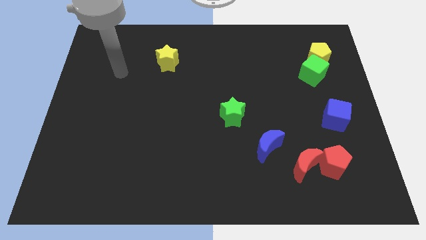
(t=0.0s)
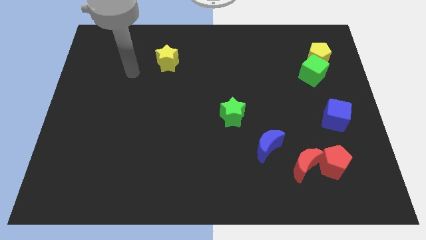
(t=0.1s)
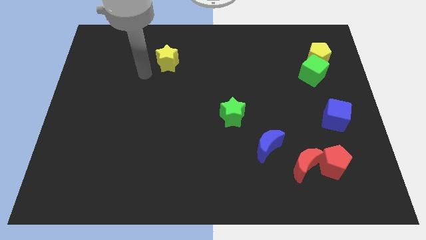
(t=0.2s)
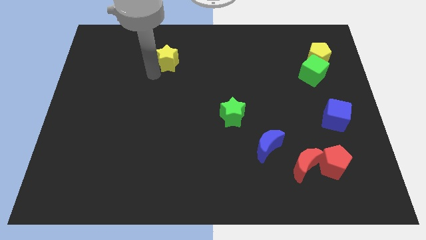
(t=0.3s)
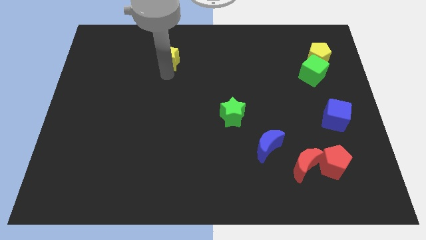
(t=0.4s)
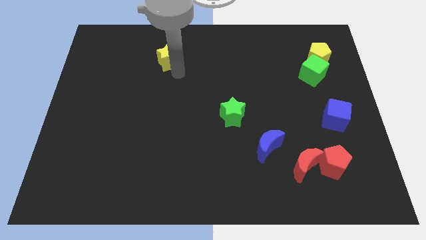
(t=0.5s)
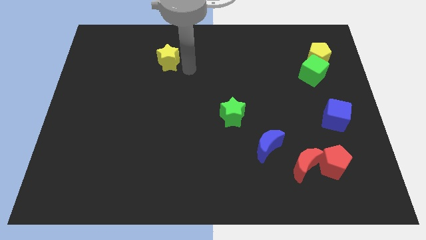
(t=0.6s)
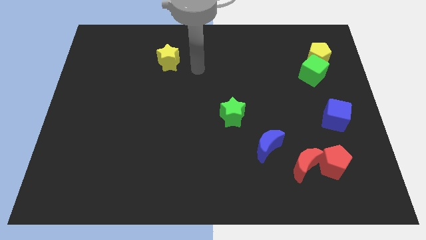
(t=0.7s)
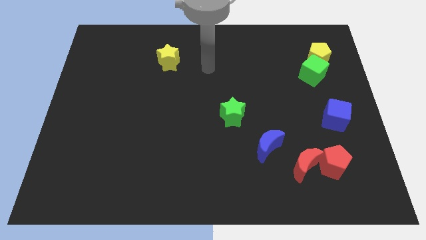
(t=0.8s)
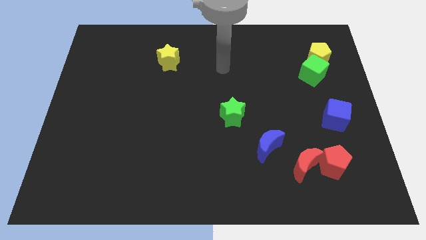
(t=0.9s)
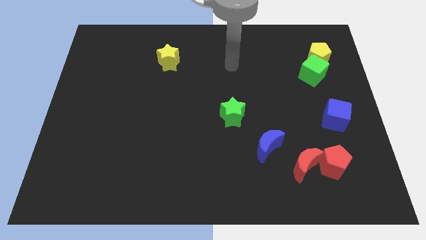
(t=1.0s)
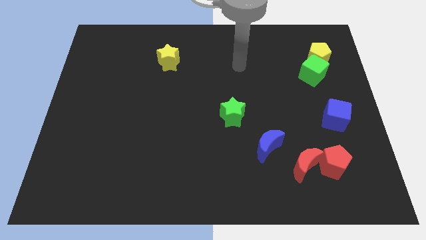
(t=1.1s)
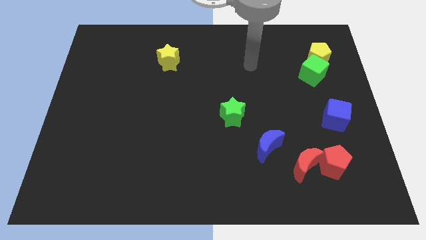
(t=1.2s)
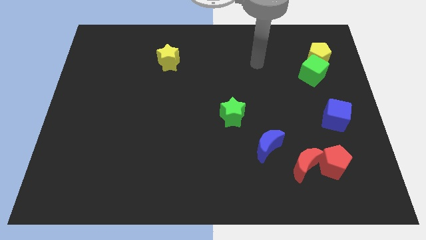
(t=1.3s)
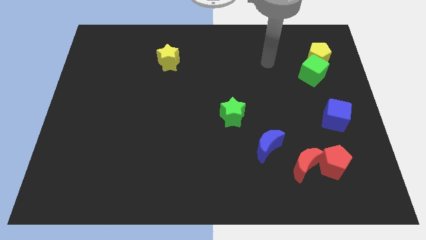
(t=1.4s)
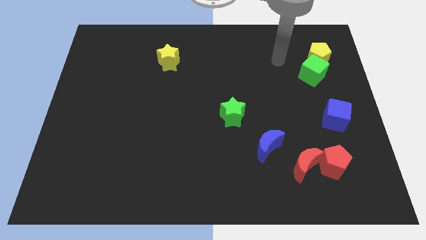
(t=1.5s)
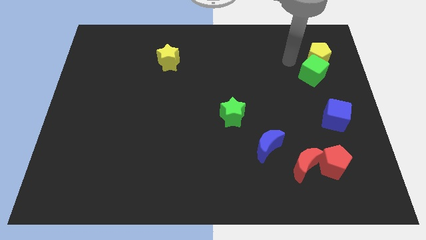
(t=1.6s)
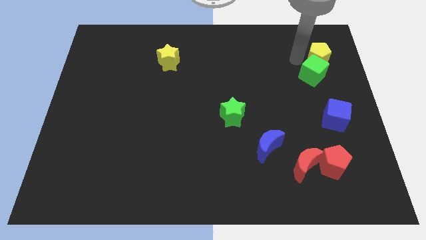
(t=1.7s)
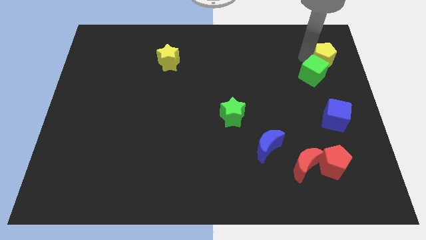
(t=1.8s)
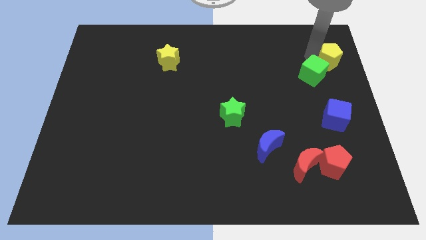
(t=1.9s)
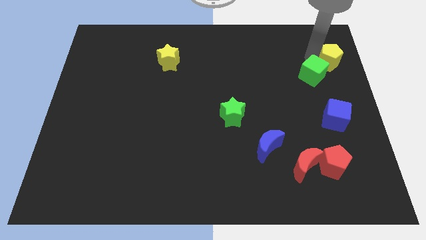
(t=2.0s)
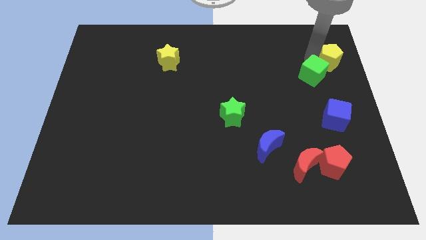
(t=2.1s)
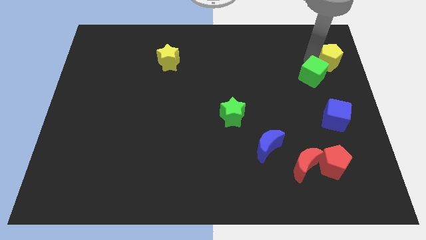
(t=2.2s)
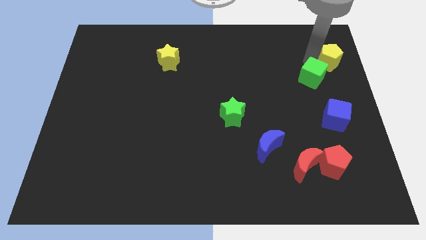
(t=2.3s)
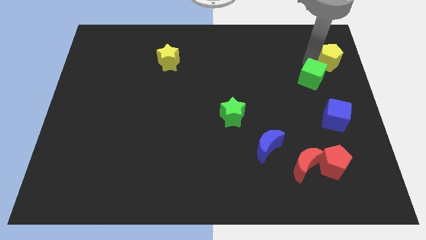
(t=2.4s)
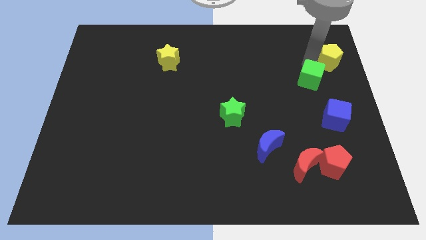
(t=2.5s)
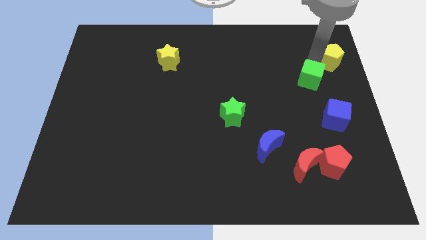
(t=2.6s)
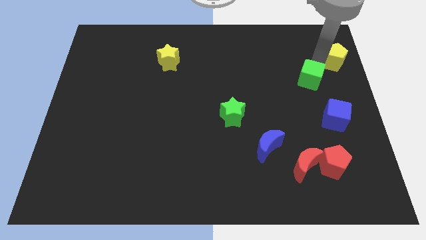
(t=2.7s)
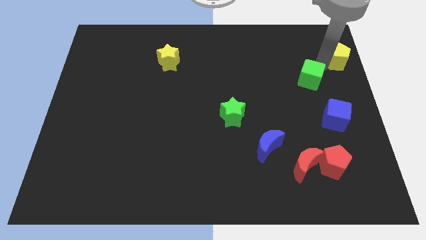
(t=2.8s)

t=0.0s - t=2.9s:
pull the green cube apart from the yellow pentagon

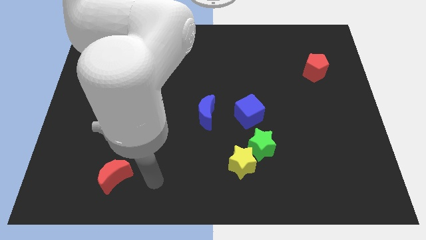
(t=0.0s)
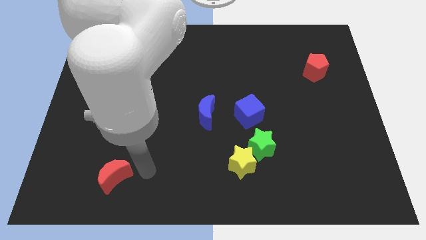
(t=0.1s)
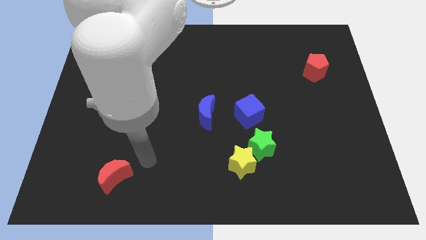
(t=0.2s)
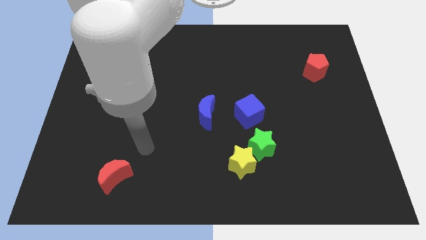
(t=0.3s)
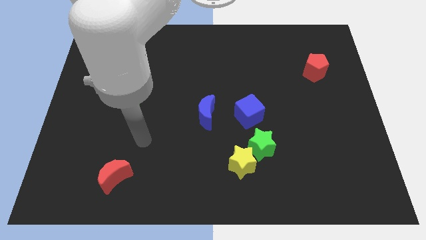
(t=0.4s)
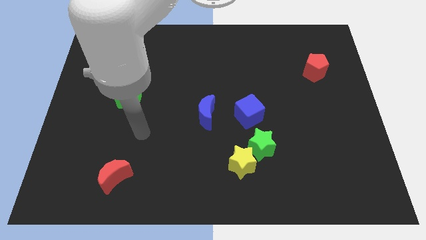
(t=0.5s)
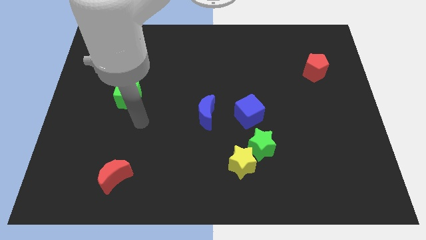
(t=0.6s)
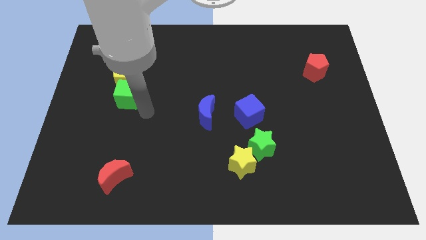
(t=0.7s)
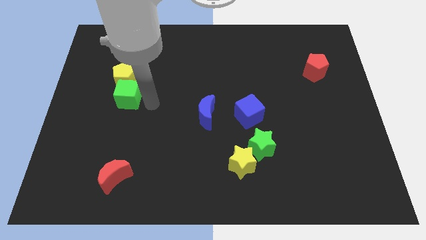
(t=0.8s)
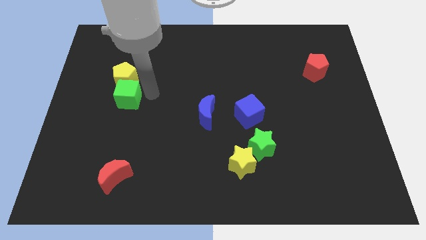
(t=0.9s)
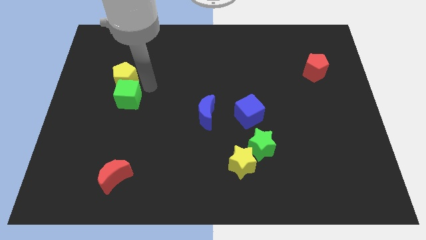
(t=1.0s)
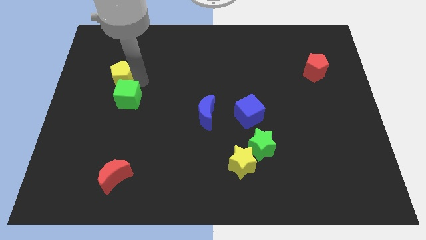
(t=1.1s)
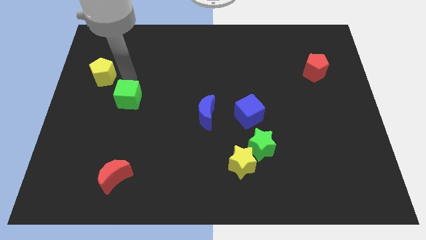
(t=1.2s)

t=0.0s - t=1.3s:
separate the green cube from the yellow pentagon

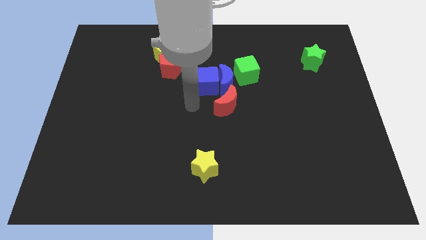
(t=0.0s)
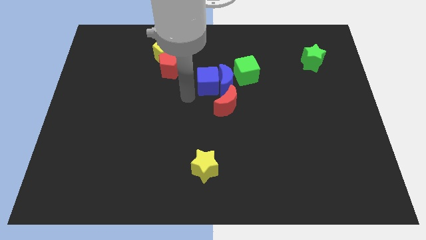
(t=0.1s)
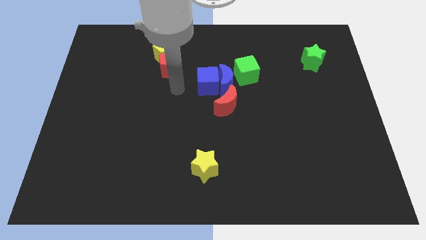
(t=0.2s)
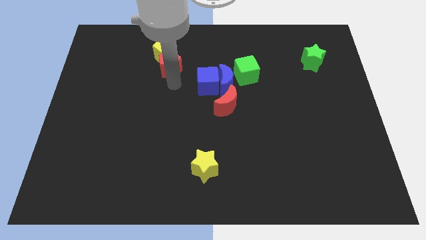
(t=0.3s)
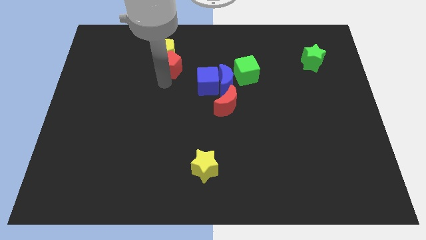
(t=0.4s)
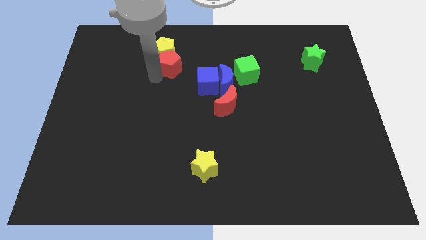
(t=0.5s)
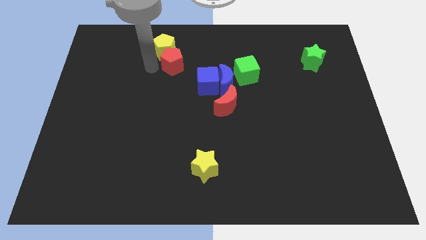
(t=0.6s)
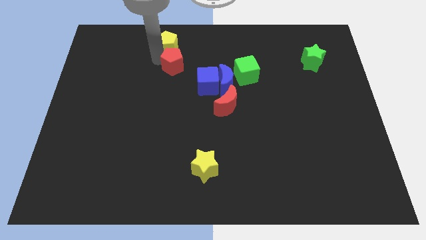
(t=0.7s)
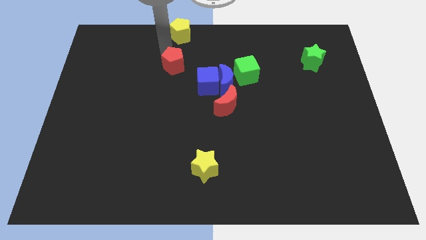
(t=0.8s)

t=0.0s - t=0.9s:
pull the red pentagon apart from the yellow pentagon

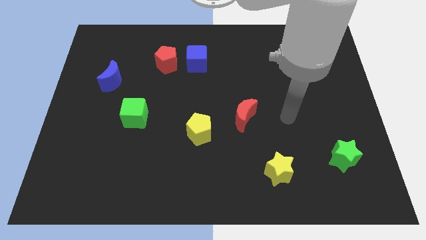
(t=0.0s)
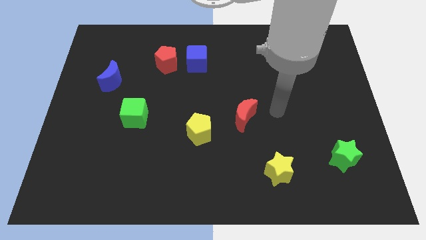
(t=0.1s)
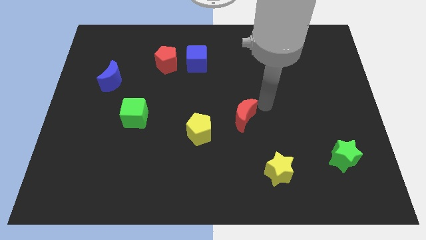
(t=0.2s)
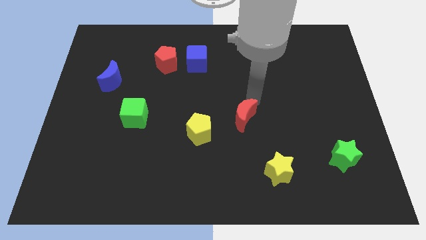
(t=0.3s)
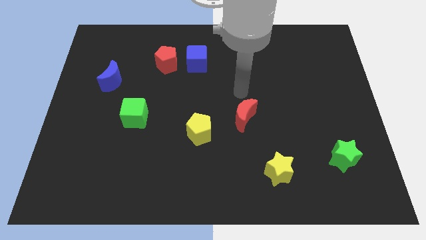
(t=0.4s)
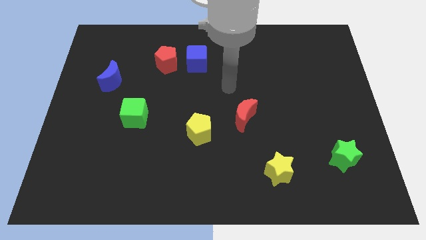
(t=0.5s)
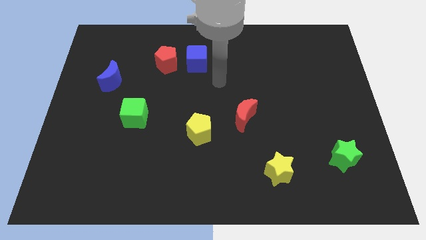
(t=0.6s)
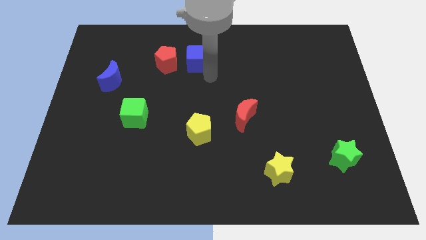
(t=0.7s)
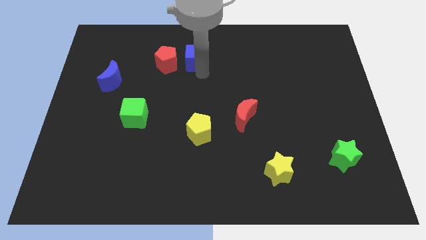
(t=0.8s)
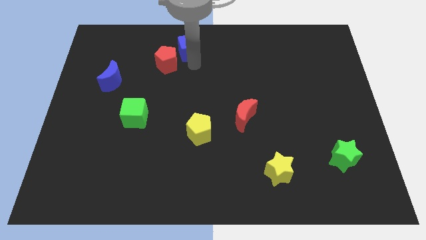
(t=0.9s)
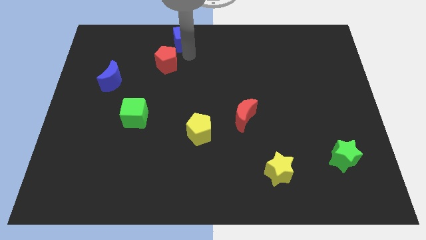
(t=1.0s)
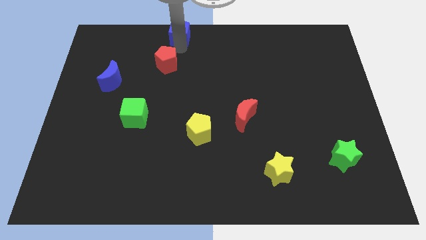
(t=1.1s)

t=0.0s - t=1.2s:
move the red pentagon away from the blue cube

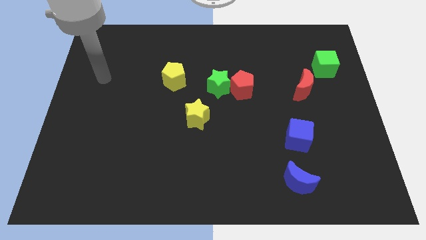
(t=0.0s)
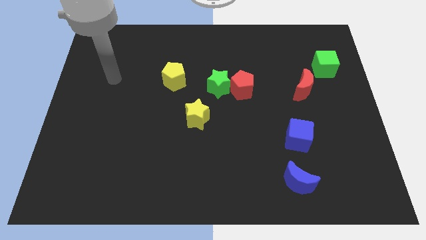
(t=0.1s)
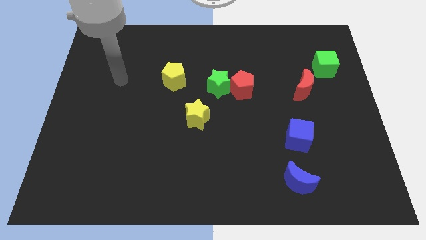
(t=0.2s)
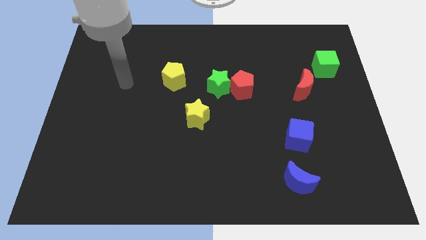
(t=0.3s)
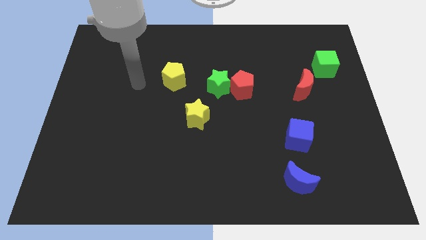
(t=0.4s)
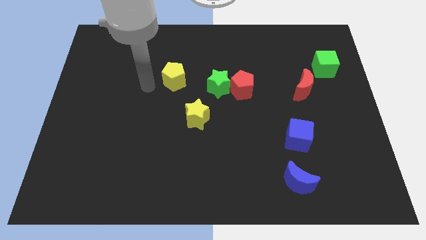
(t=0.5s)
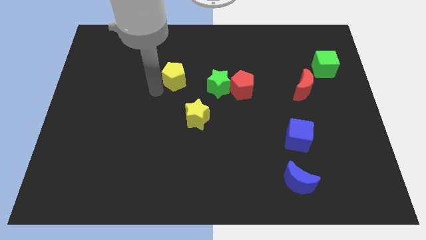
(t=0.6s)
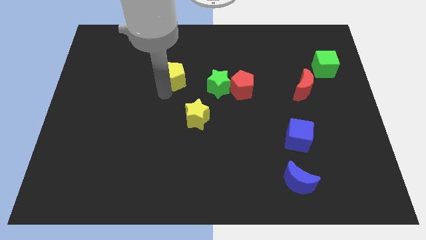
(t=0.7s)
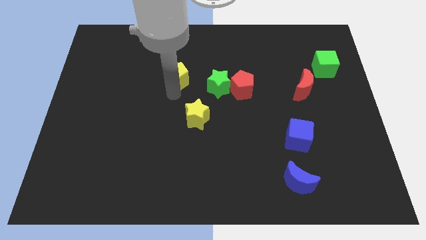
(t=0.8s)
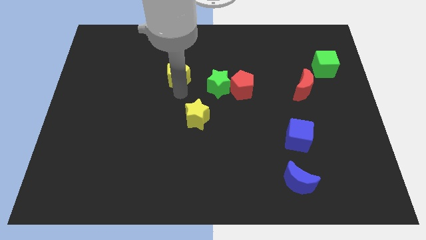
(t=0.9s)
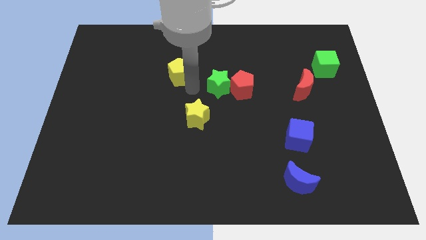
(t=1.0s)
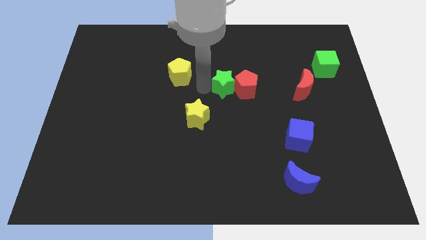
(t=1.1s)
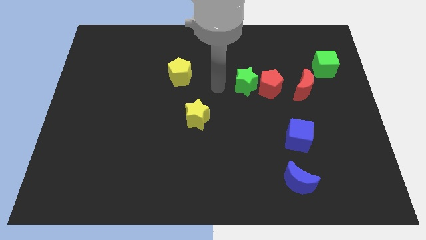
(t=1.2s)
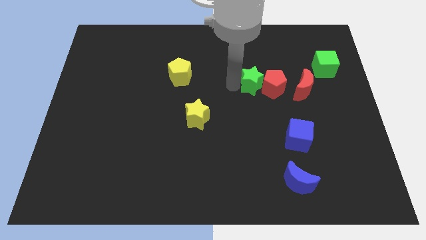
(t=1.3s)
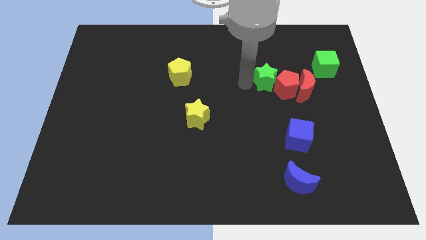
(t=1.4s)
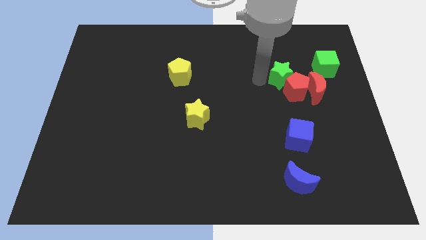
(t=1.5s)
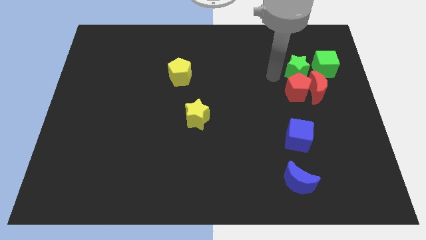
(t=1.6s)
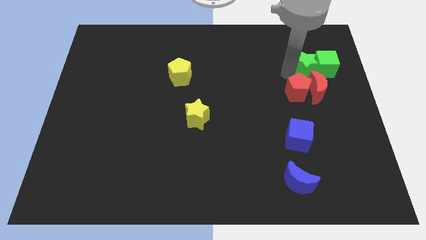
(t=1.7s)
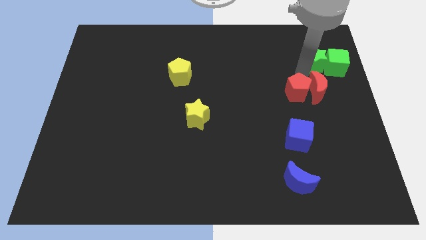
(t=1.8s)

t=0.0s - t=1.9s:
separate the red pentagon from the green star

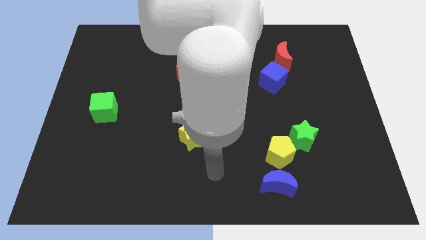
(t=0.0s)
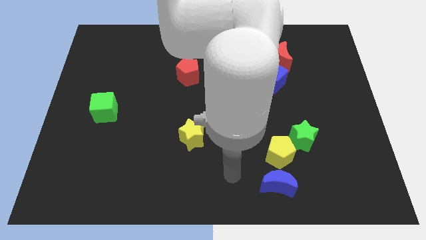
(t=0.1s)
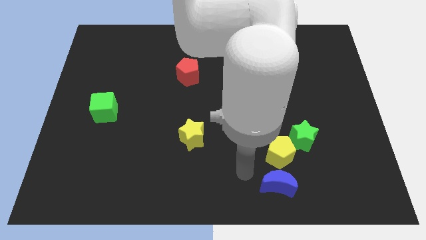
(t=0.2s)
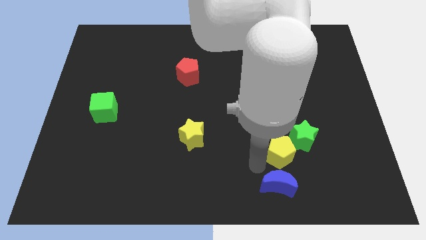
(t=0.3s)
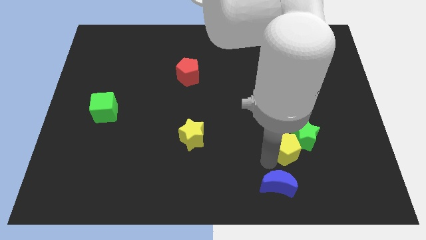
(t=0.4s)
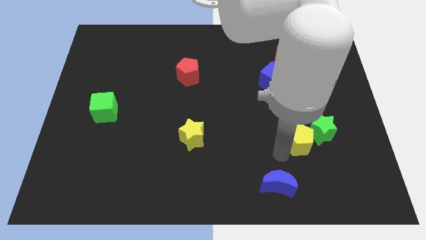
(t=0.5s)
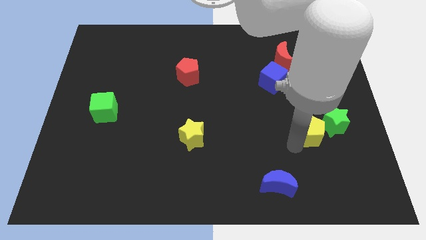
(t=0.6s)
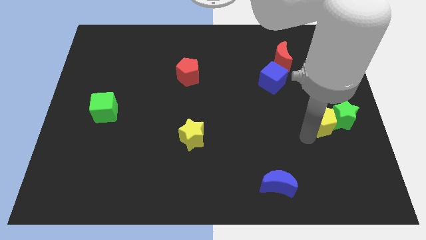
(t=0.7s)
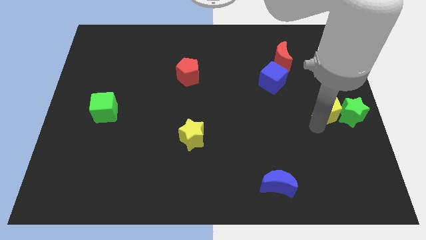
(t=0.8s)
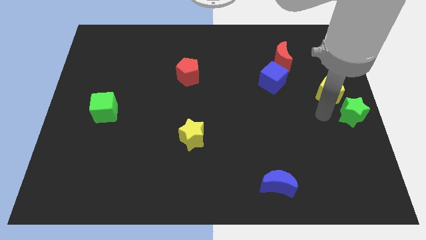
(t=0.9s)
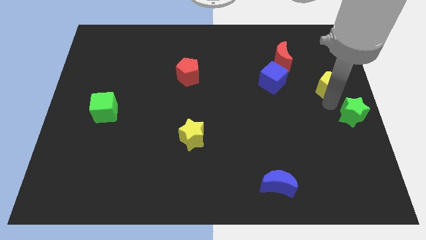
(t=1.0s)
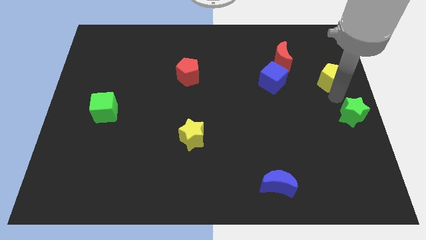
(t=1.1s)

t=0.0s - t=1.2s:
move the green star away from the yellow pentagon
